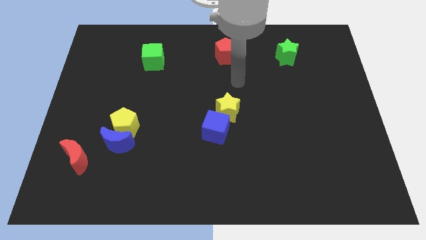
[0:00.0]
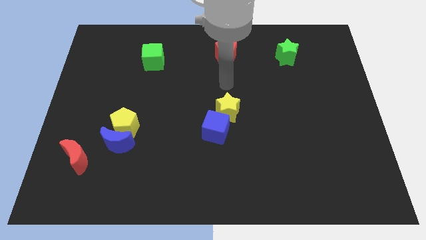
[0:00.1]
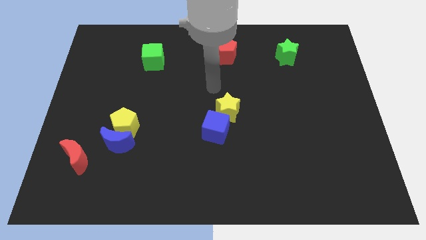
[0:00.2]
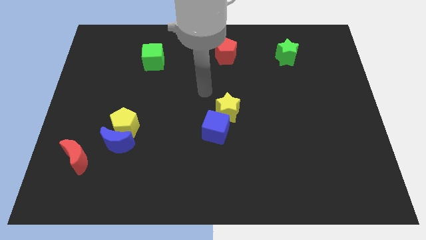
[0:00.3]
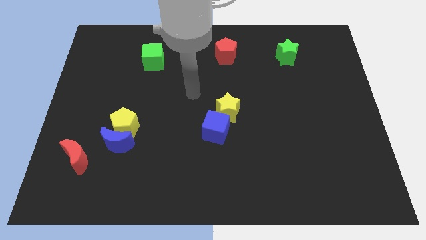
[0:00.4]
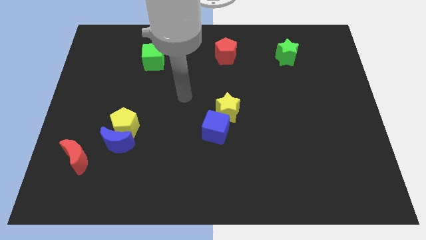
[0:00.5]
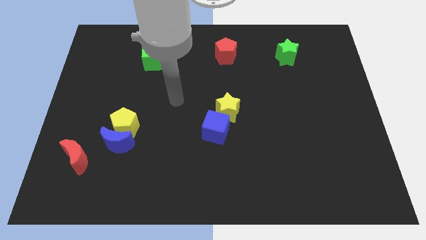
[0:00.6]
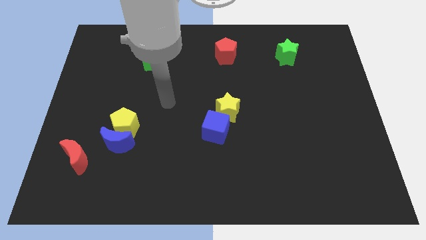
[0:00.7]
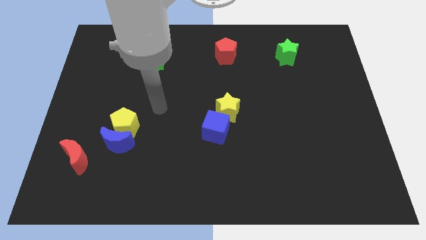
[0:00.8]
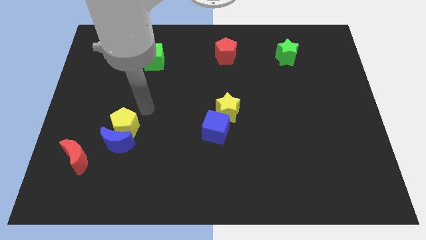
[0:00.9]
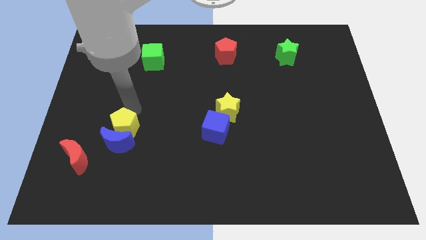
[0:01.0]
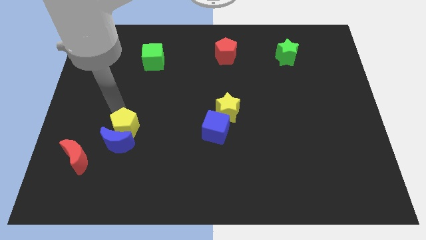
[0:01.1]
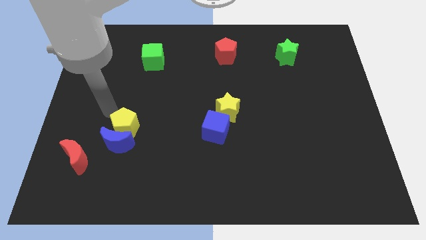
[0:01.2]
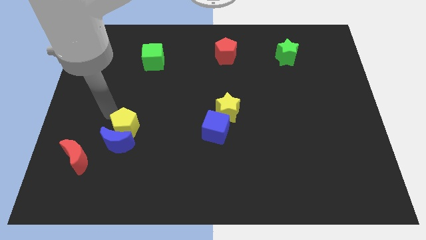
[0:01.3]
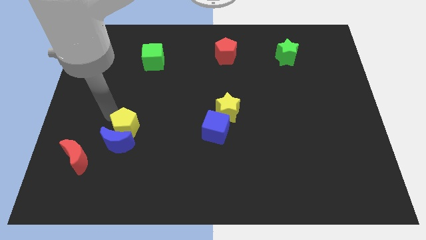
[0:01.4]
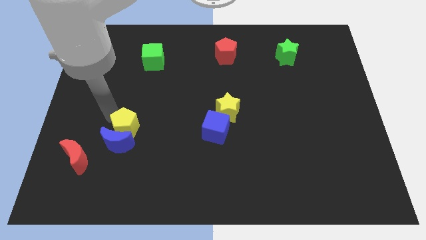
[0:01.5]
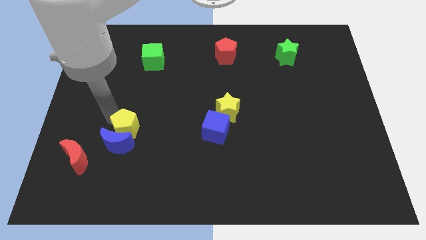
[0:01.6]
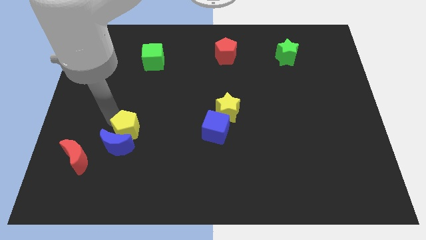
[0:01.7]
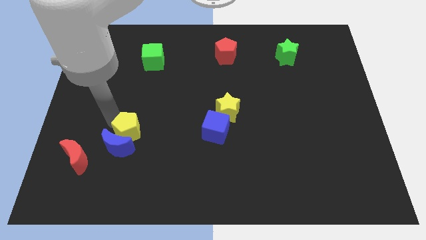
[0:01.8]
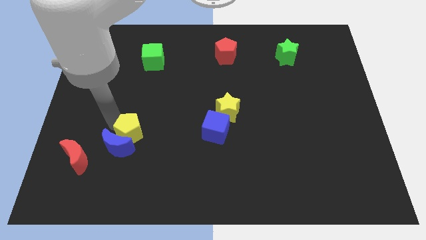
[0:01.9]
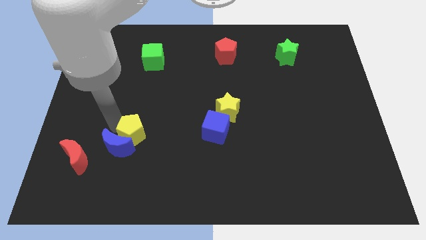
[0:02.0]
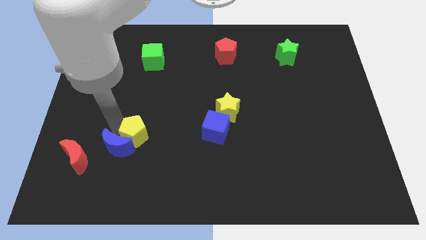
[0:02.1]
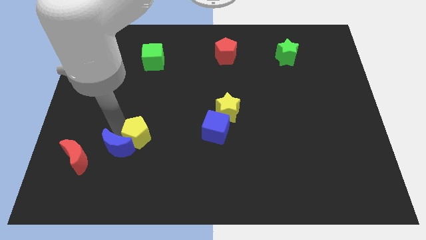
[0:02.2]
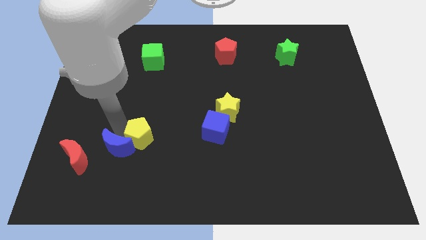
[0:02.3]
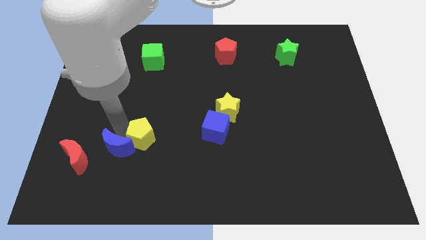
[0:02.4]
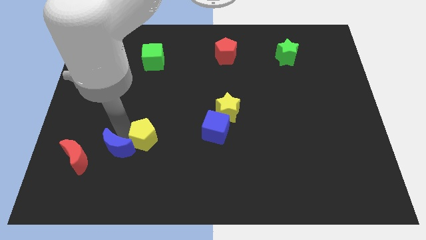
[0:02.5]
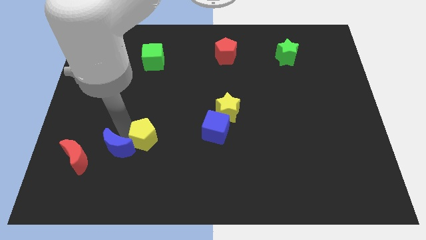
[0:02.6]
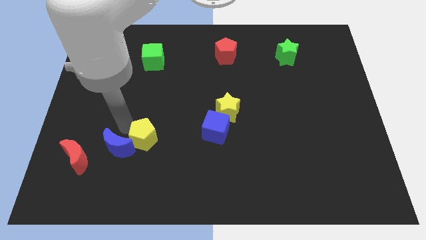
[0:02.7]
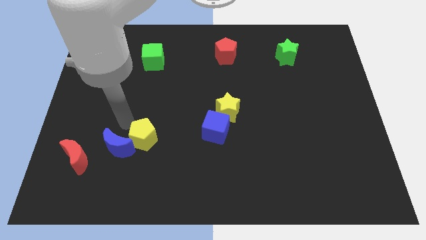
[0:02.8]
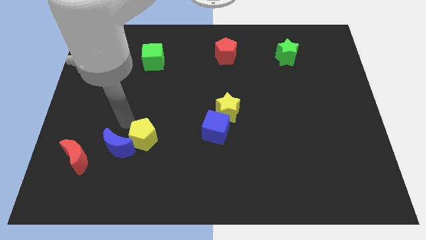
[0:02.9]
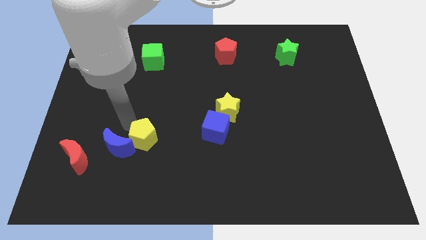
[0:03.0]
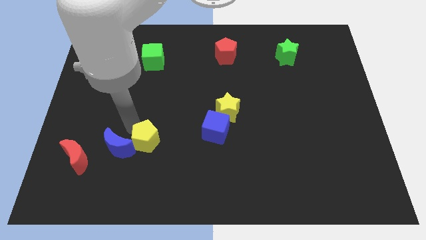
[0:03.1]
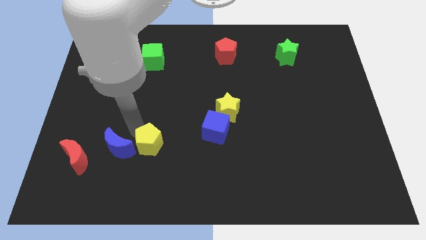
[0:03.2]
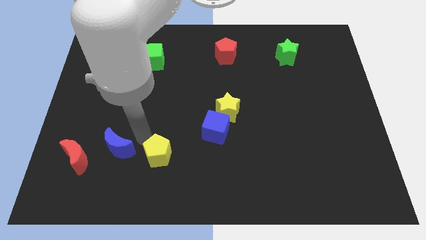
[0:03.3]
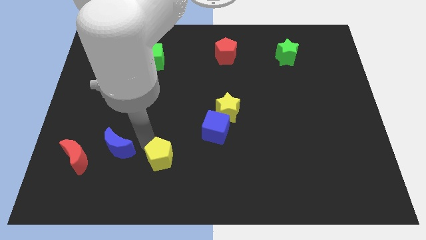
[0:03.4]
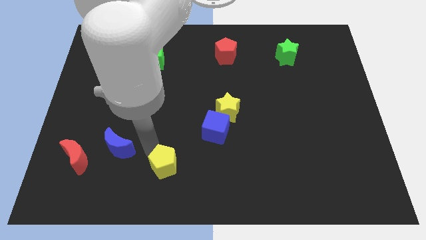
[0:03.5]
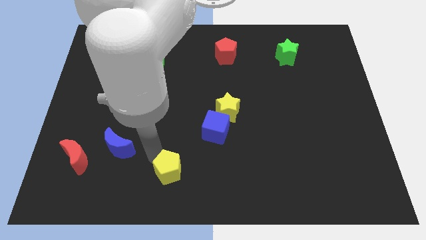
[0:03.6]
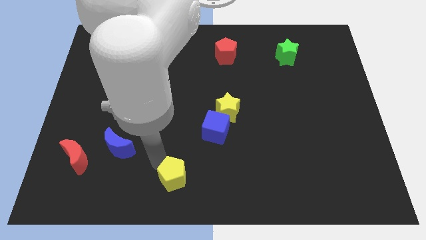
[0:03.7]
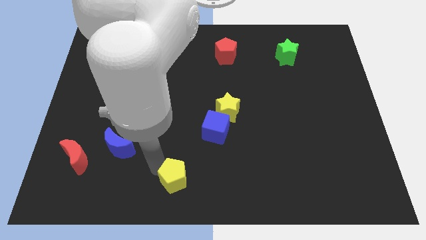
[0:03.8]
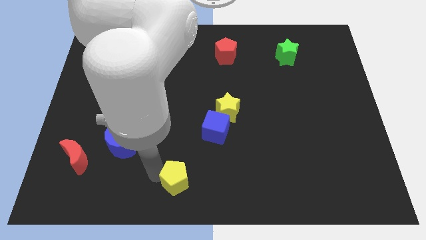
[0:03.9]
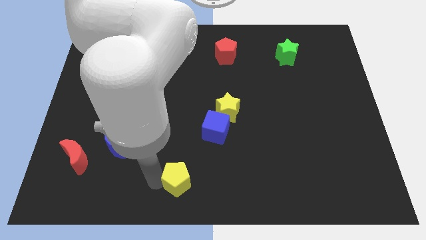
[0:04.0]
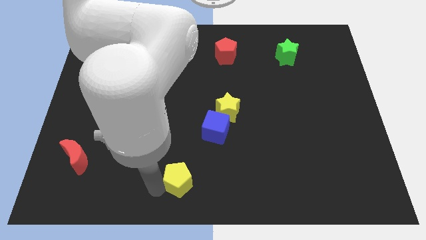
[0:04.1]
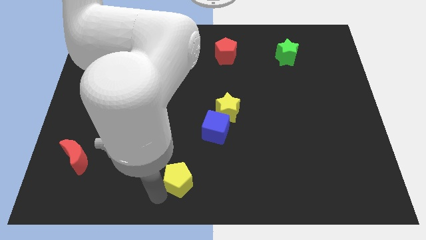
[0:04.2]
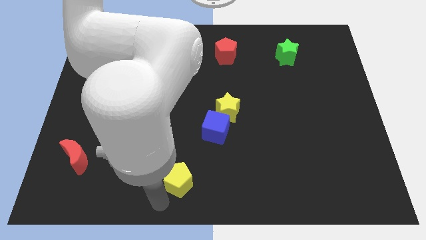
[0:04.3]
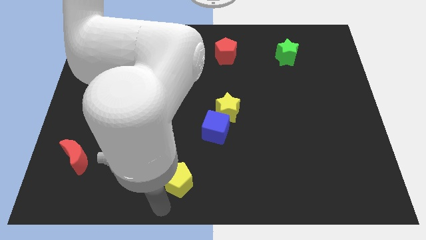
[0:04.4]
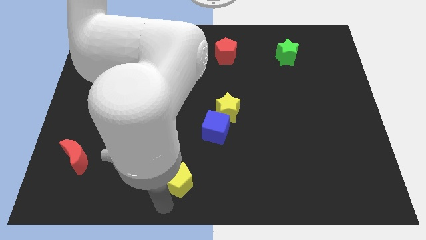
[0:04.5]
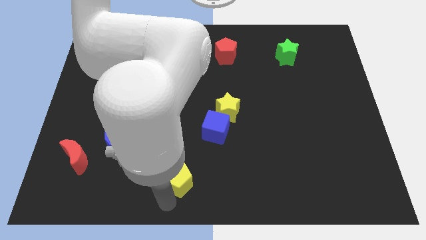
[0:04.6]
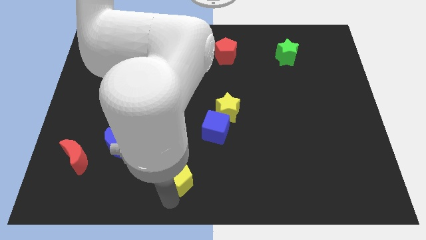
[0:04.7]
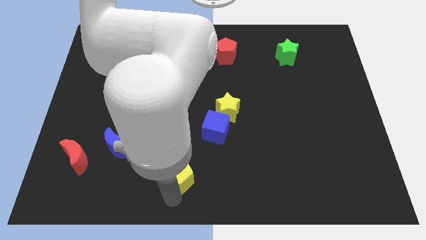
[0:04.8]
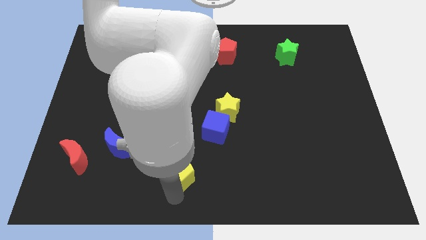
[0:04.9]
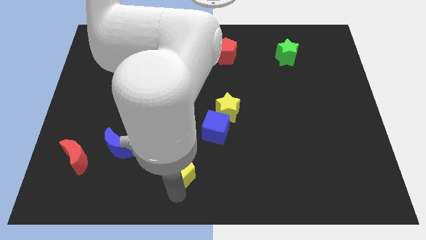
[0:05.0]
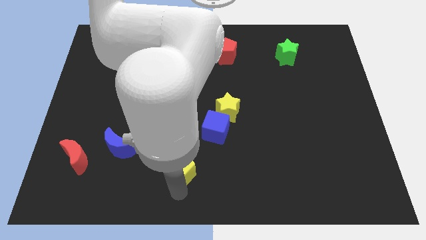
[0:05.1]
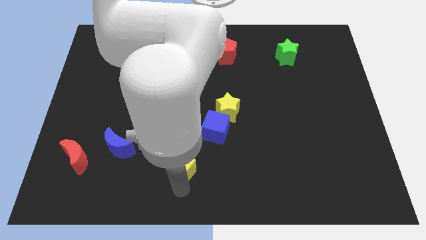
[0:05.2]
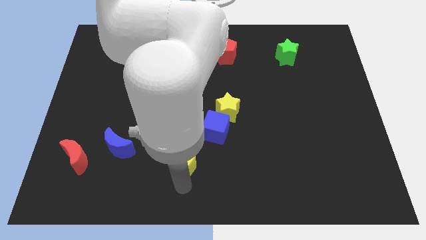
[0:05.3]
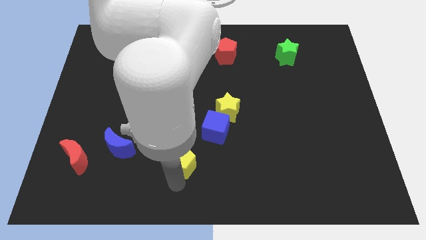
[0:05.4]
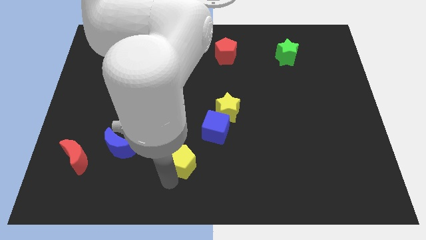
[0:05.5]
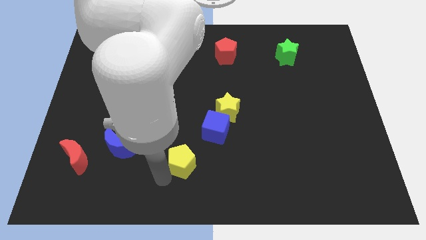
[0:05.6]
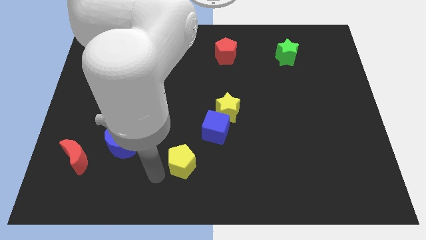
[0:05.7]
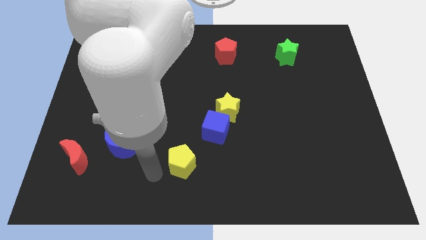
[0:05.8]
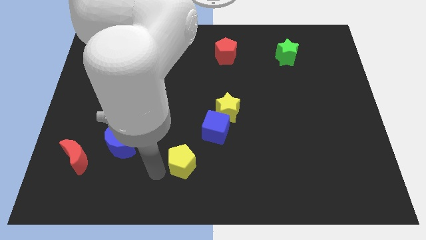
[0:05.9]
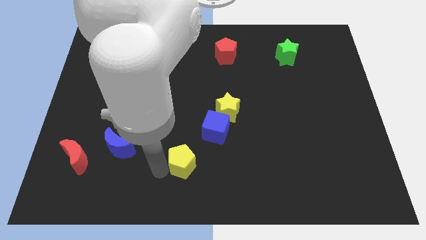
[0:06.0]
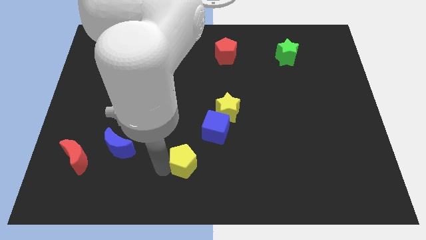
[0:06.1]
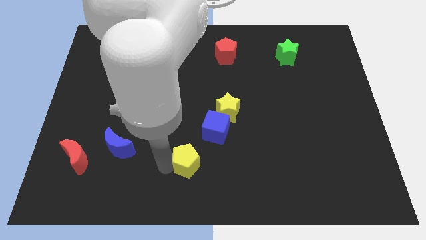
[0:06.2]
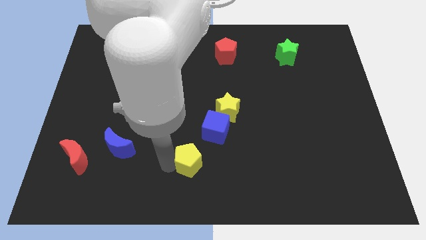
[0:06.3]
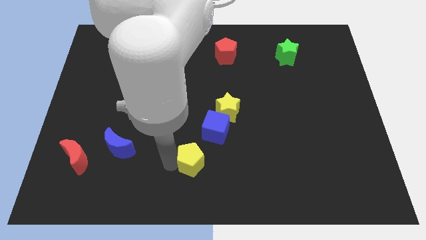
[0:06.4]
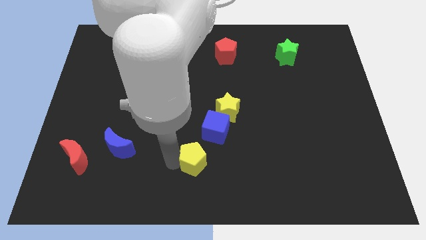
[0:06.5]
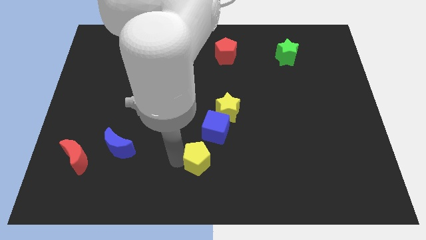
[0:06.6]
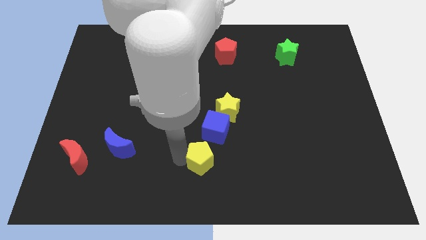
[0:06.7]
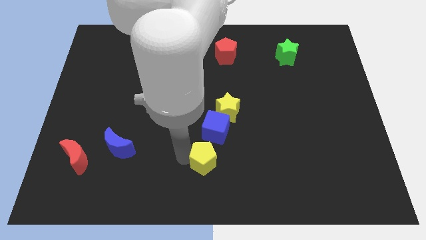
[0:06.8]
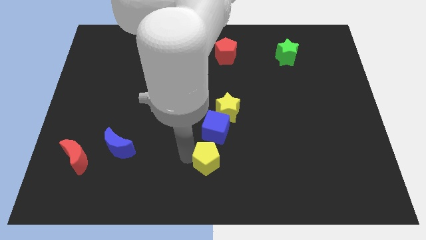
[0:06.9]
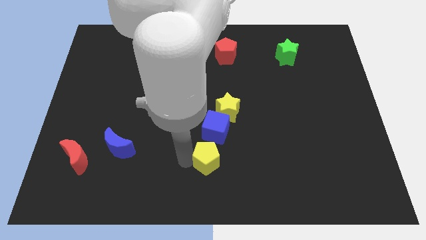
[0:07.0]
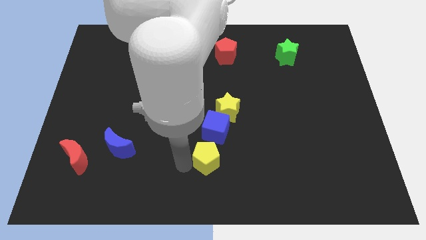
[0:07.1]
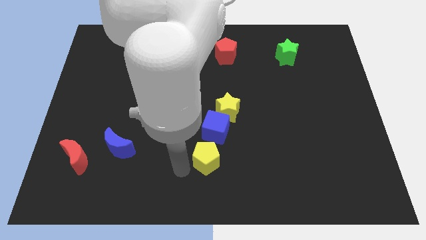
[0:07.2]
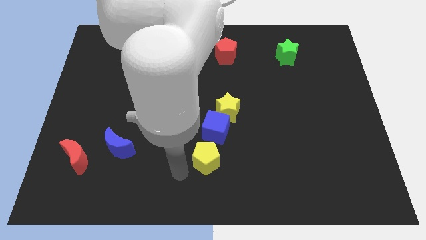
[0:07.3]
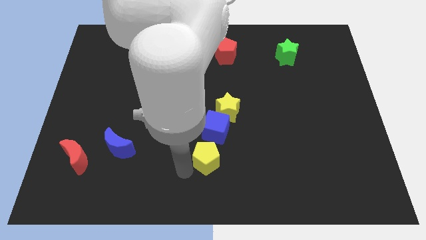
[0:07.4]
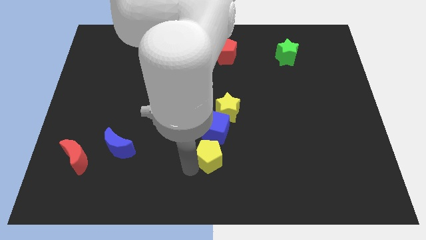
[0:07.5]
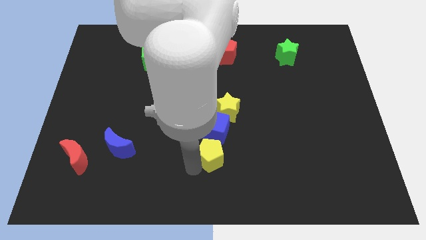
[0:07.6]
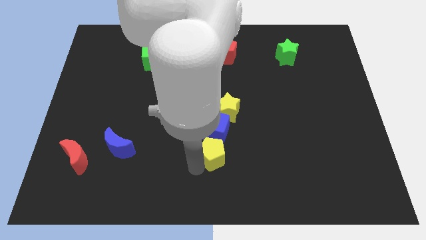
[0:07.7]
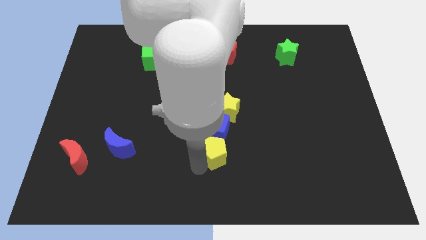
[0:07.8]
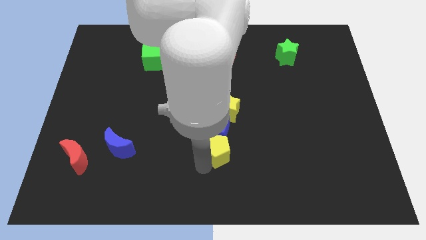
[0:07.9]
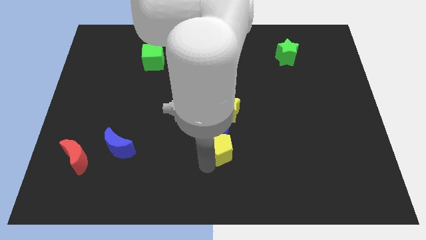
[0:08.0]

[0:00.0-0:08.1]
push the yellow pentagon to the right
